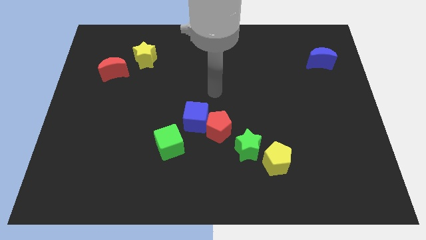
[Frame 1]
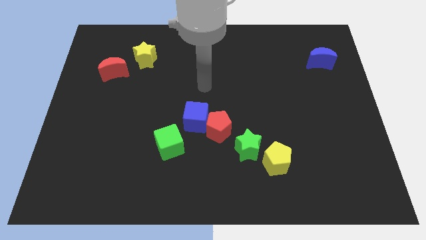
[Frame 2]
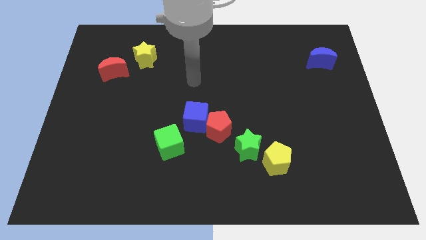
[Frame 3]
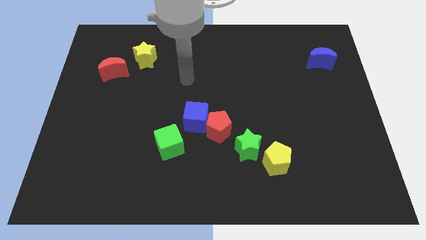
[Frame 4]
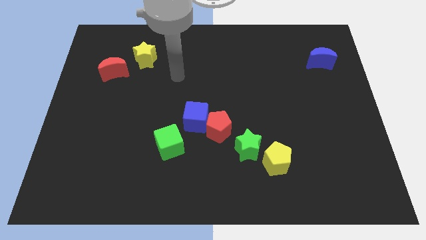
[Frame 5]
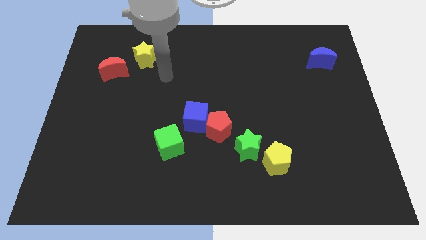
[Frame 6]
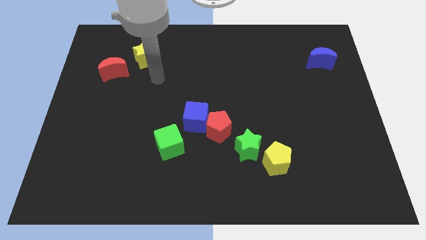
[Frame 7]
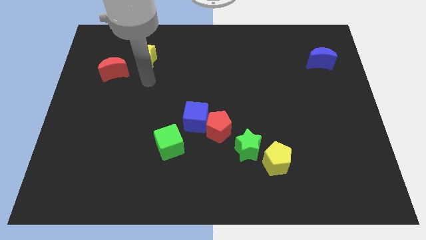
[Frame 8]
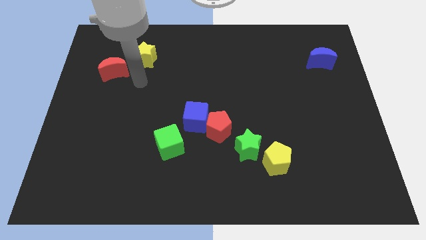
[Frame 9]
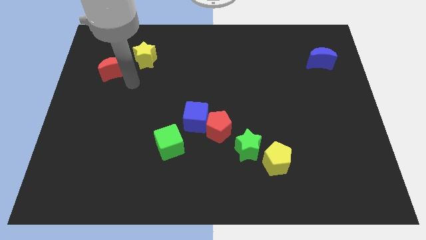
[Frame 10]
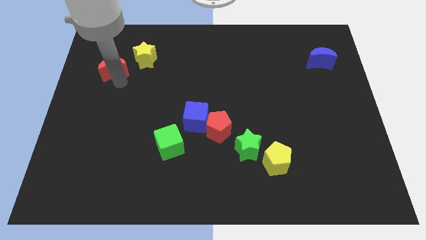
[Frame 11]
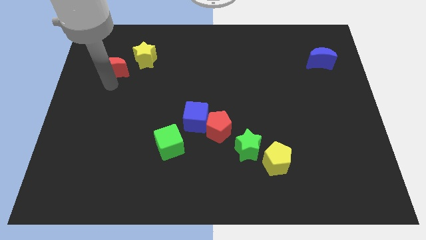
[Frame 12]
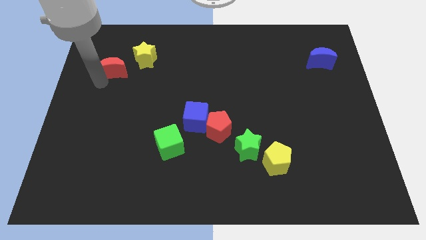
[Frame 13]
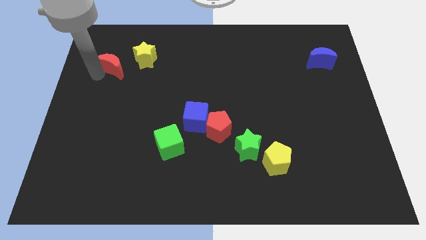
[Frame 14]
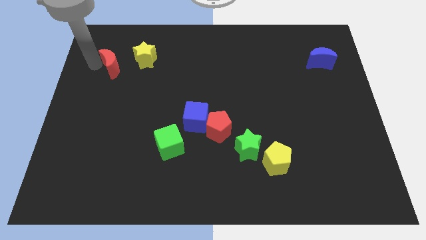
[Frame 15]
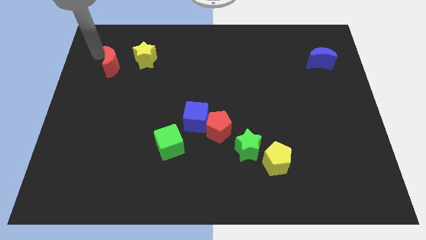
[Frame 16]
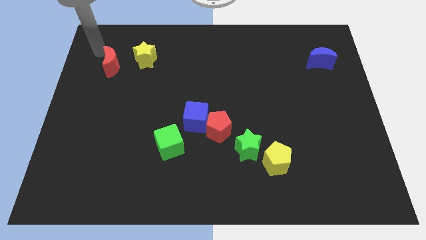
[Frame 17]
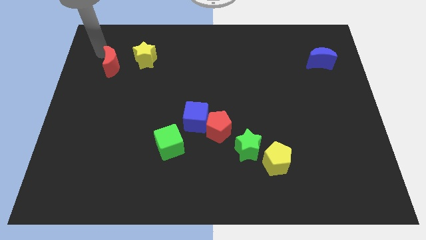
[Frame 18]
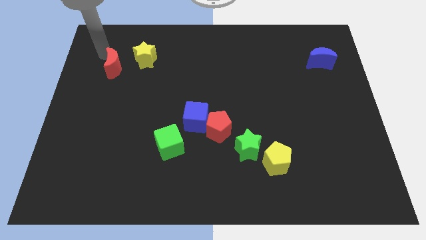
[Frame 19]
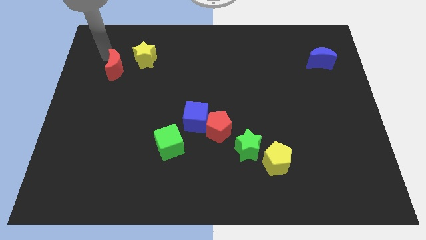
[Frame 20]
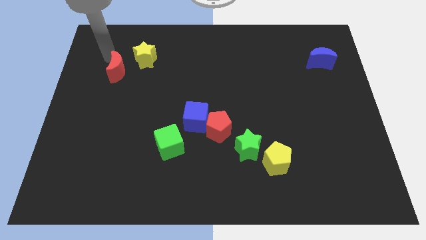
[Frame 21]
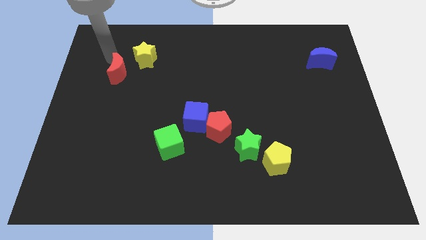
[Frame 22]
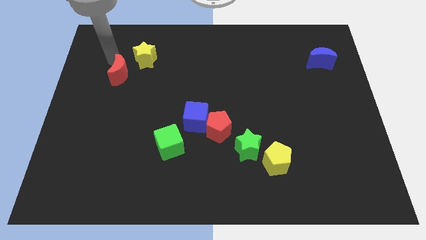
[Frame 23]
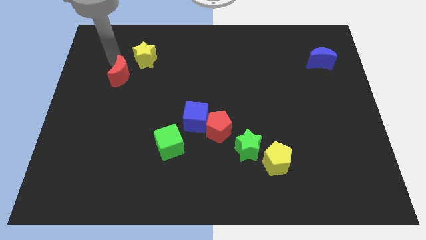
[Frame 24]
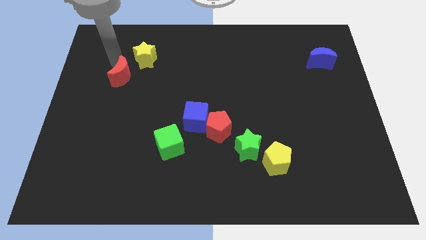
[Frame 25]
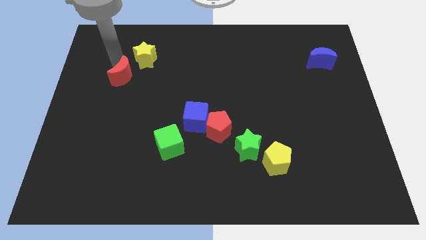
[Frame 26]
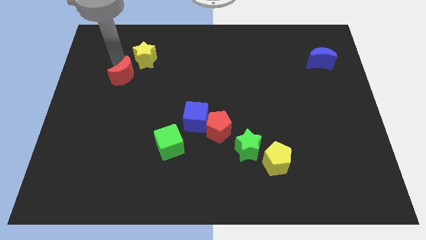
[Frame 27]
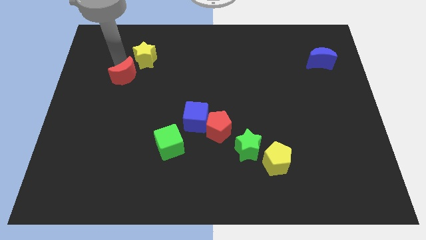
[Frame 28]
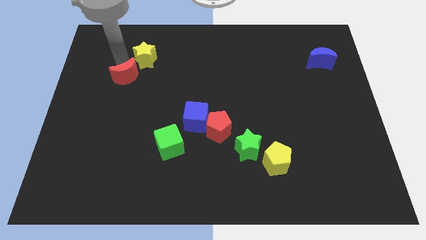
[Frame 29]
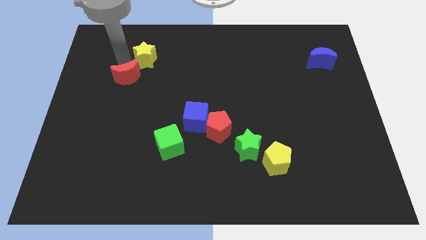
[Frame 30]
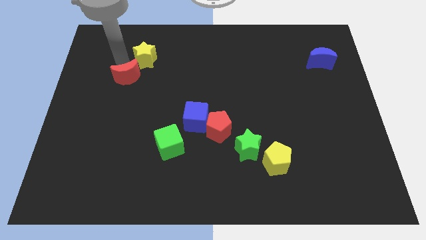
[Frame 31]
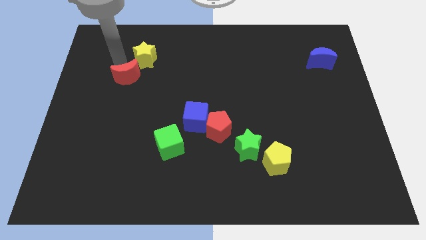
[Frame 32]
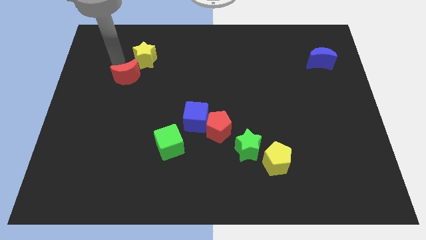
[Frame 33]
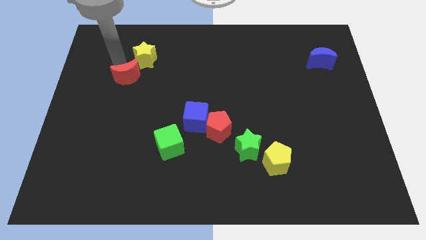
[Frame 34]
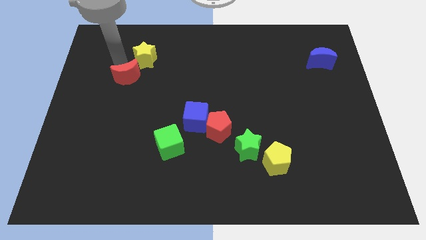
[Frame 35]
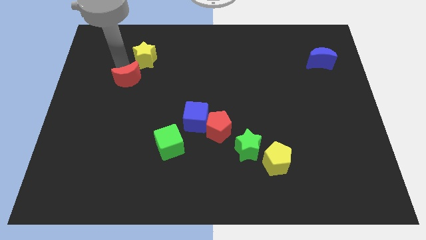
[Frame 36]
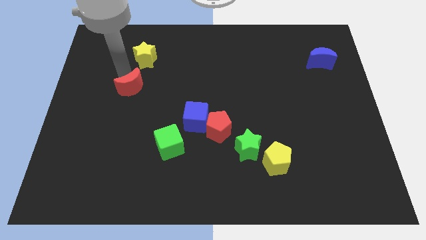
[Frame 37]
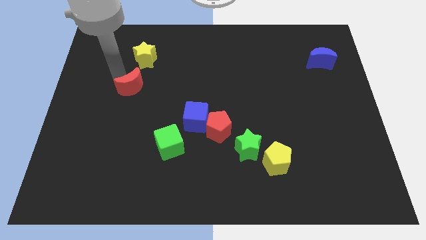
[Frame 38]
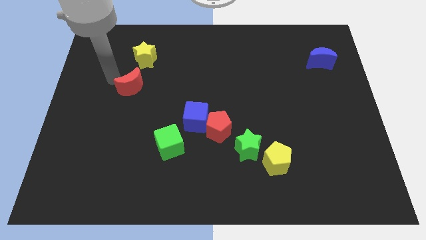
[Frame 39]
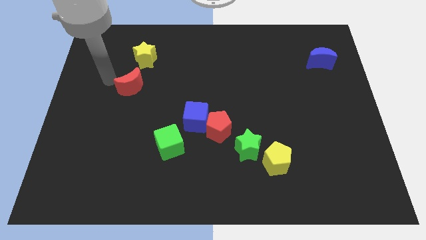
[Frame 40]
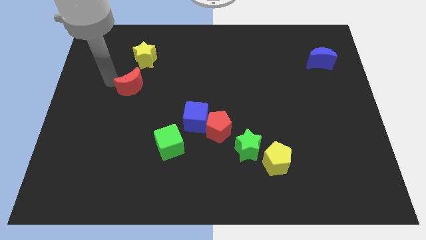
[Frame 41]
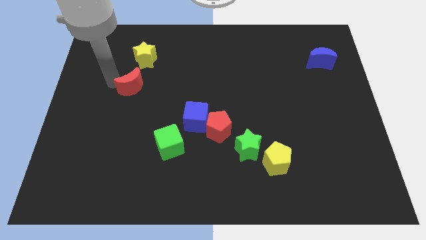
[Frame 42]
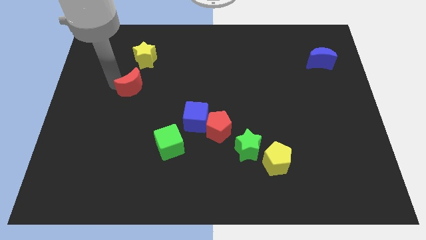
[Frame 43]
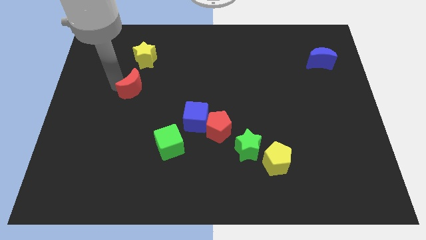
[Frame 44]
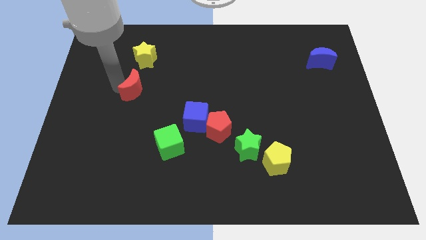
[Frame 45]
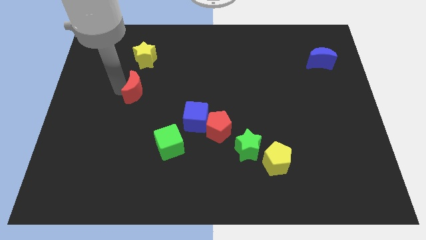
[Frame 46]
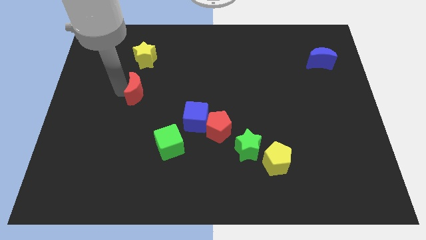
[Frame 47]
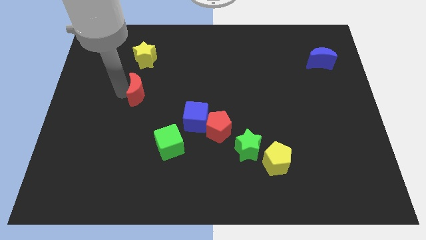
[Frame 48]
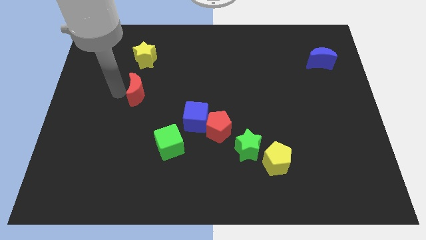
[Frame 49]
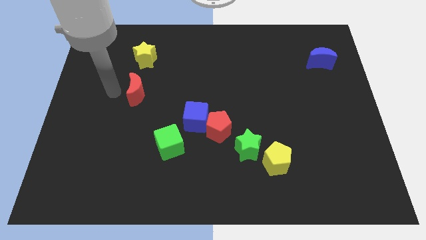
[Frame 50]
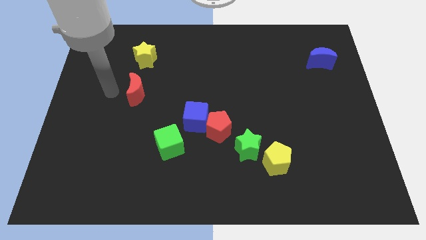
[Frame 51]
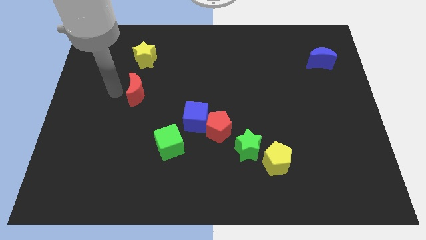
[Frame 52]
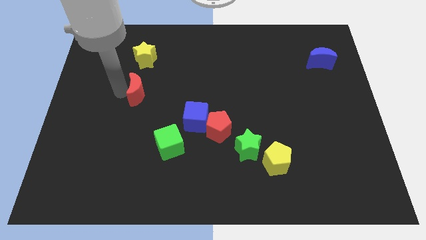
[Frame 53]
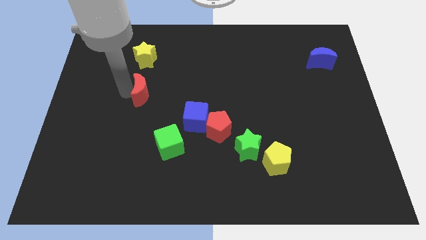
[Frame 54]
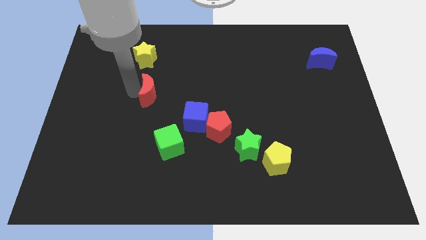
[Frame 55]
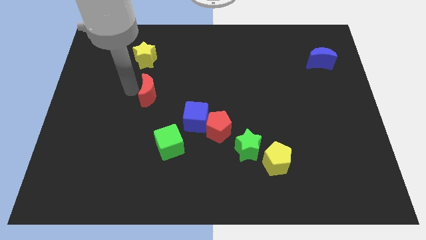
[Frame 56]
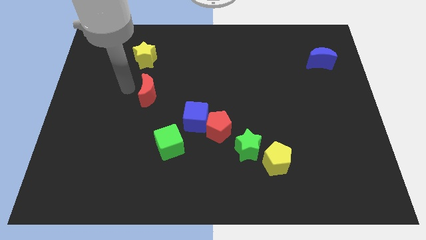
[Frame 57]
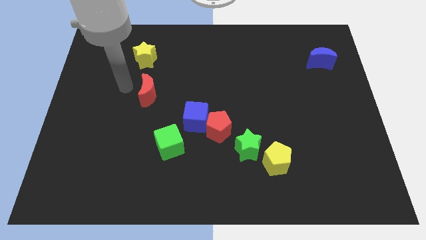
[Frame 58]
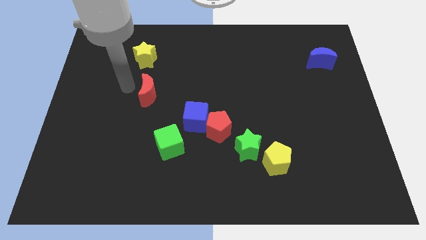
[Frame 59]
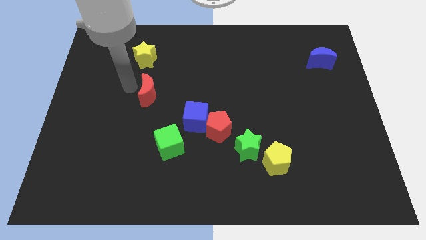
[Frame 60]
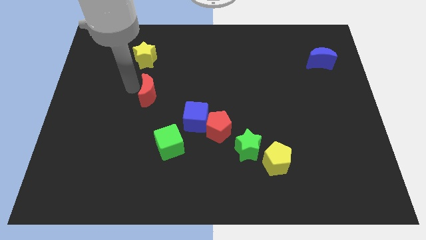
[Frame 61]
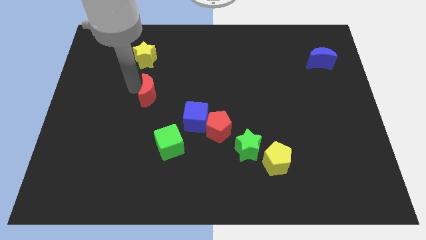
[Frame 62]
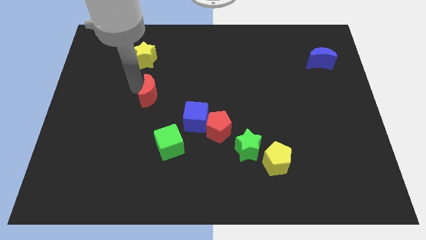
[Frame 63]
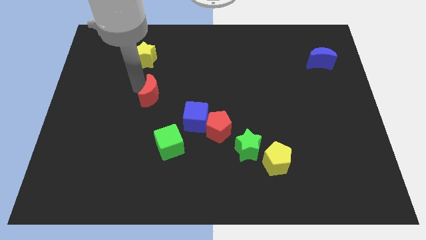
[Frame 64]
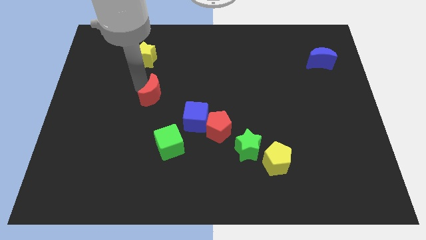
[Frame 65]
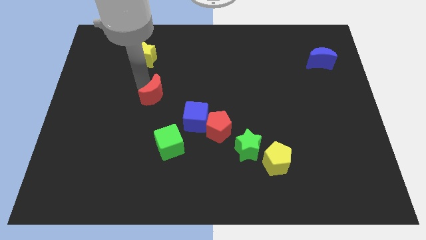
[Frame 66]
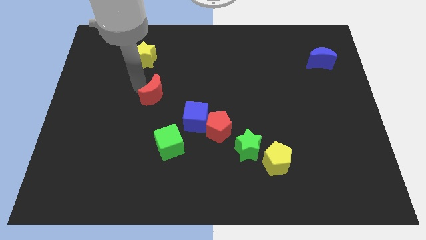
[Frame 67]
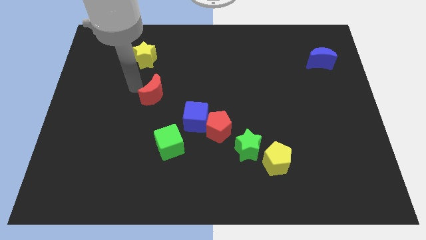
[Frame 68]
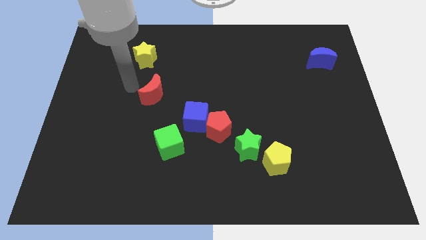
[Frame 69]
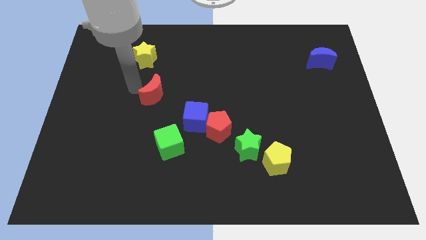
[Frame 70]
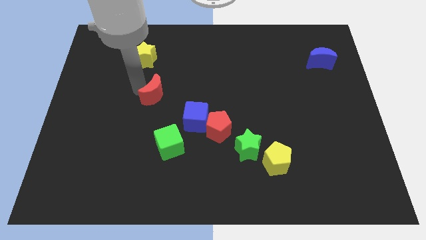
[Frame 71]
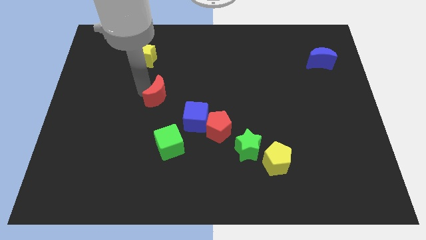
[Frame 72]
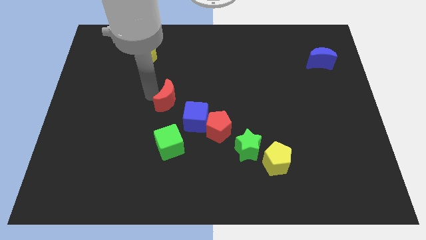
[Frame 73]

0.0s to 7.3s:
push the red moon to the center of the board
